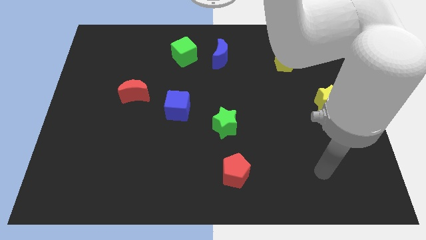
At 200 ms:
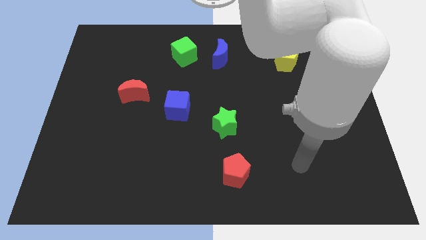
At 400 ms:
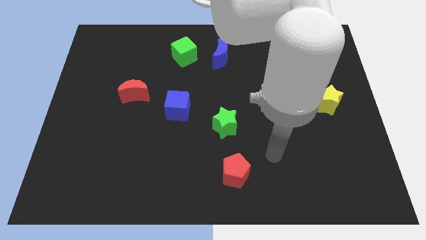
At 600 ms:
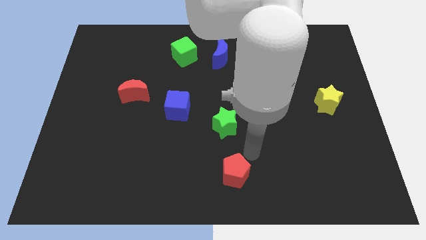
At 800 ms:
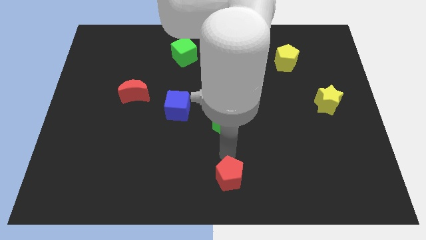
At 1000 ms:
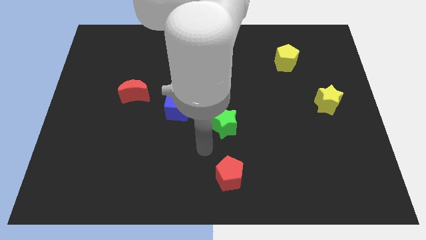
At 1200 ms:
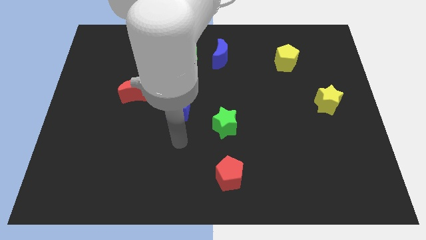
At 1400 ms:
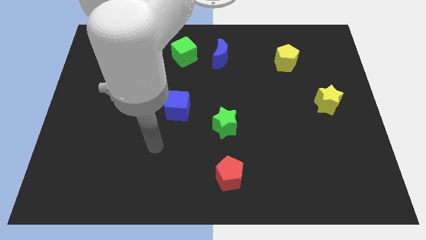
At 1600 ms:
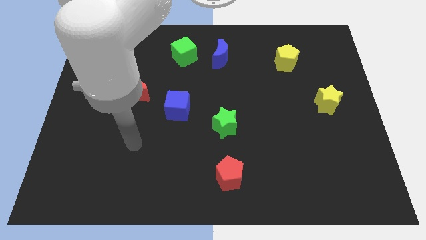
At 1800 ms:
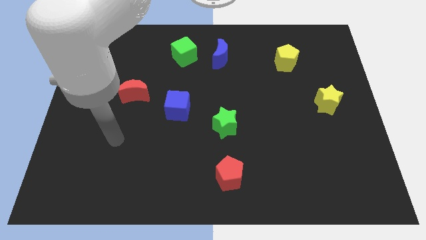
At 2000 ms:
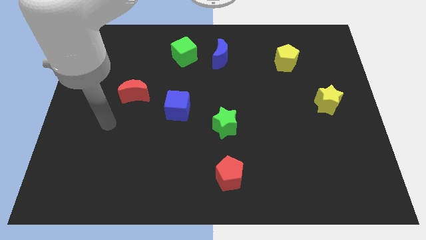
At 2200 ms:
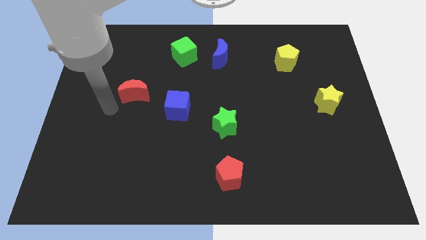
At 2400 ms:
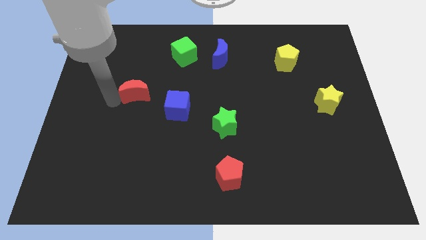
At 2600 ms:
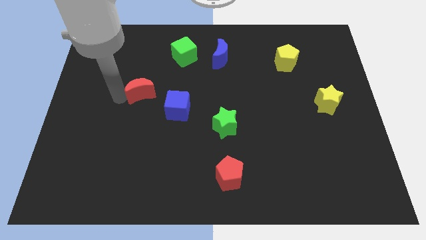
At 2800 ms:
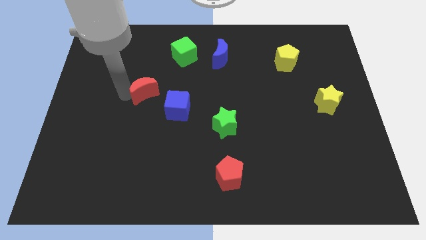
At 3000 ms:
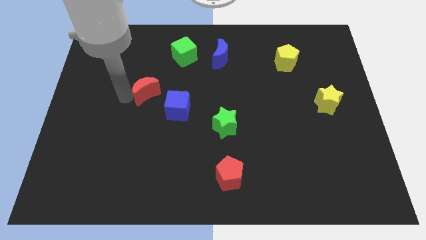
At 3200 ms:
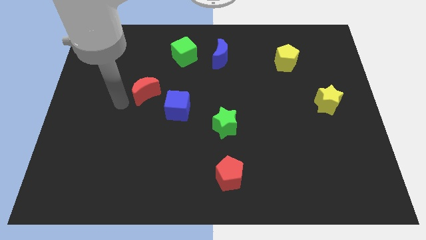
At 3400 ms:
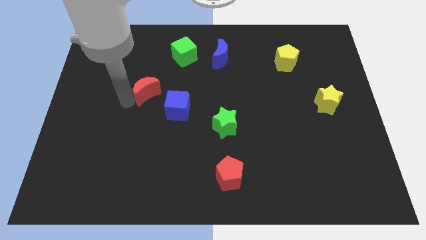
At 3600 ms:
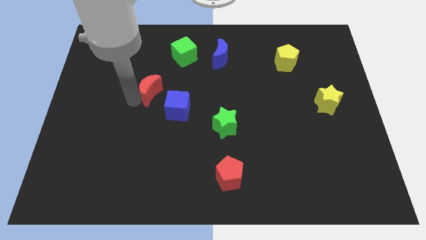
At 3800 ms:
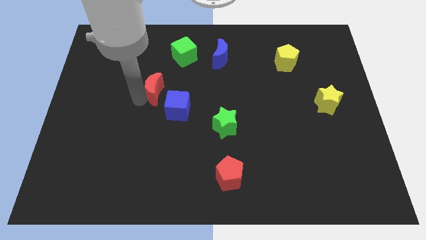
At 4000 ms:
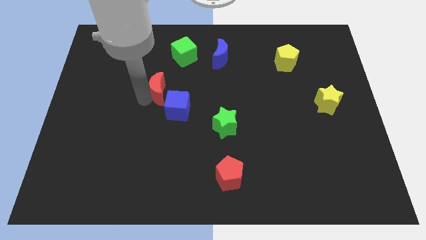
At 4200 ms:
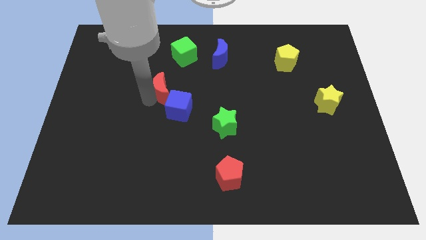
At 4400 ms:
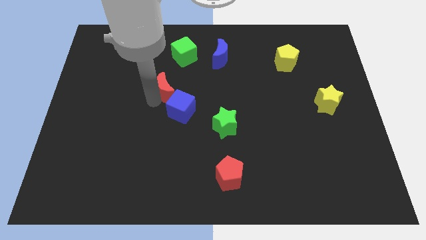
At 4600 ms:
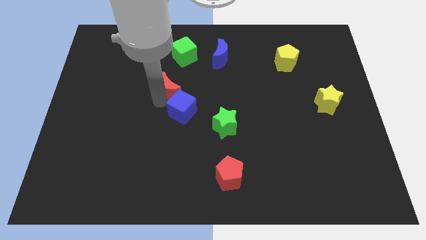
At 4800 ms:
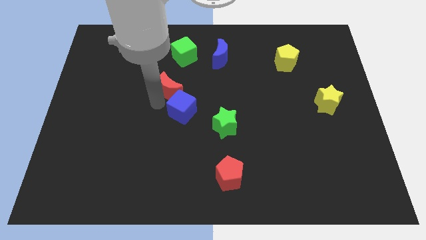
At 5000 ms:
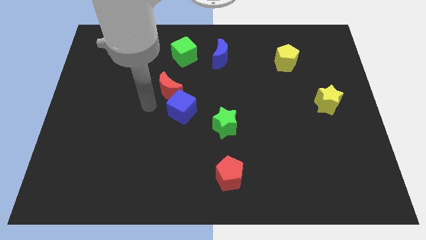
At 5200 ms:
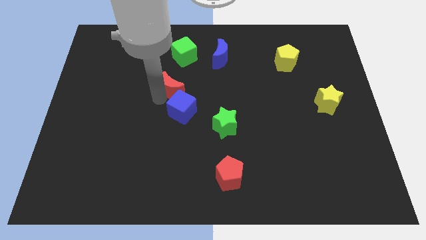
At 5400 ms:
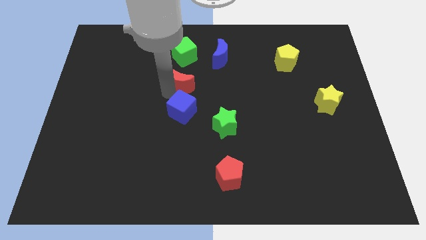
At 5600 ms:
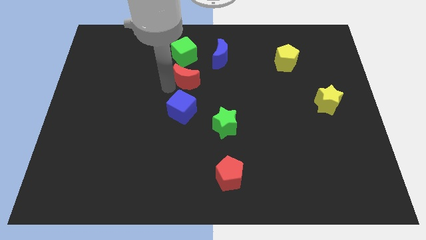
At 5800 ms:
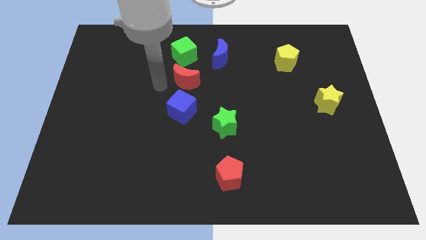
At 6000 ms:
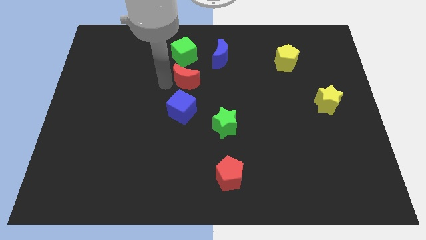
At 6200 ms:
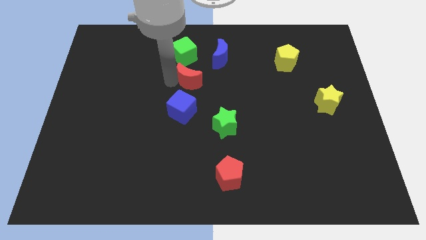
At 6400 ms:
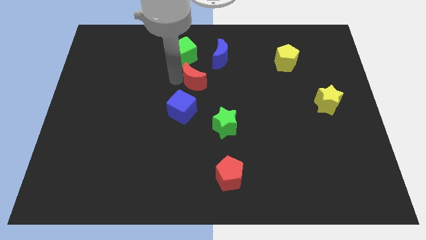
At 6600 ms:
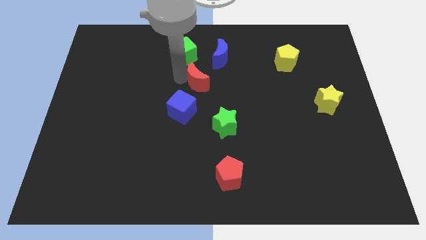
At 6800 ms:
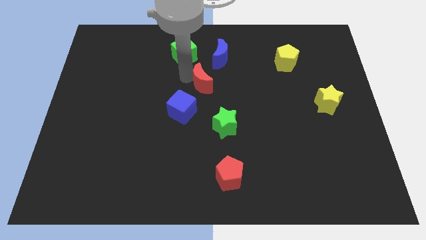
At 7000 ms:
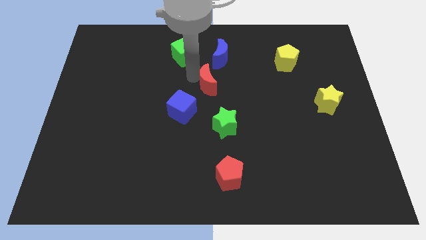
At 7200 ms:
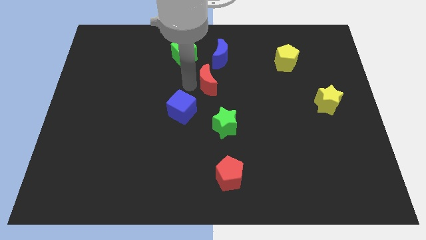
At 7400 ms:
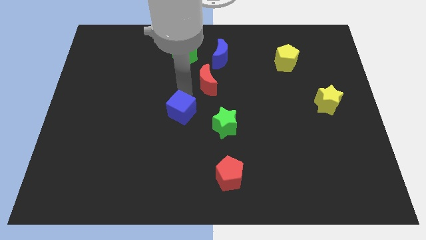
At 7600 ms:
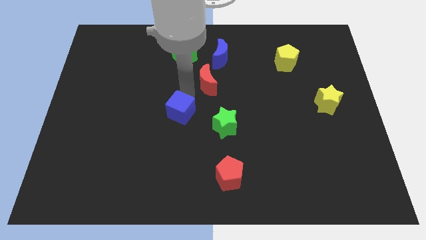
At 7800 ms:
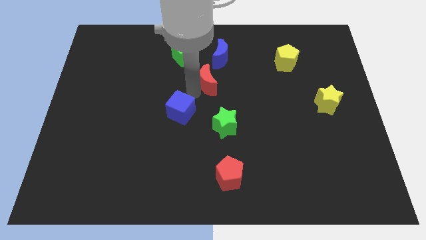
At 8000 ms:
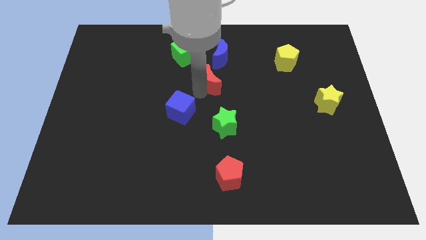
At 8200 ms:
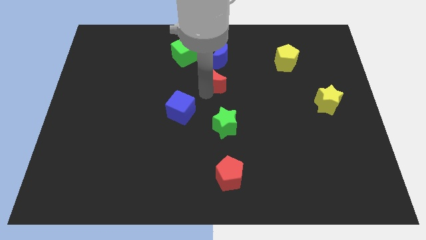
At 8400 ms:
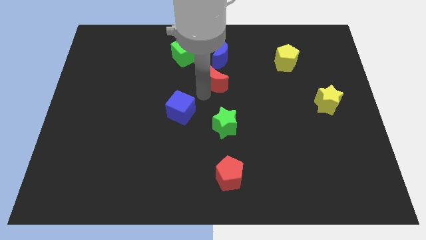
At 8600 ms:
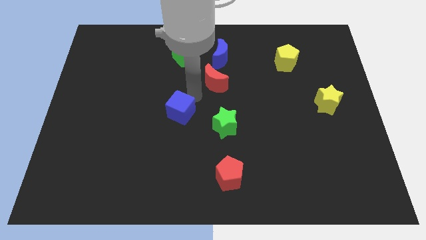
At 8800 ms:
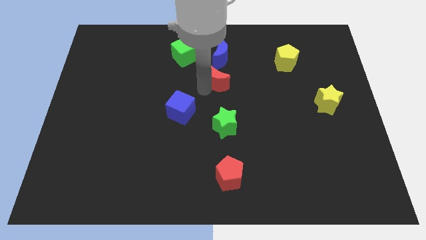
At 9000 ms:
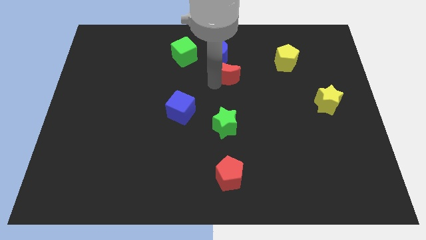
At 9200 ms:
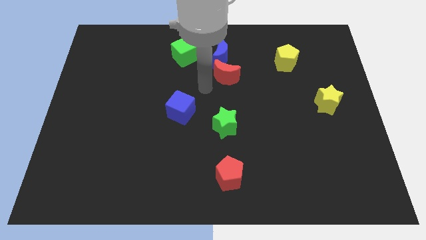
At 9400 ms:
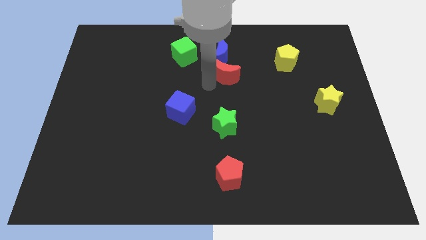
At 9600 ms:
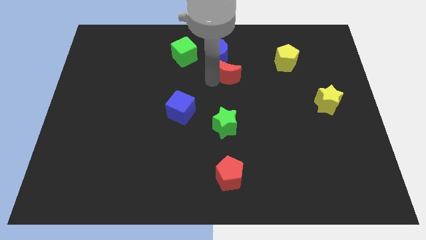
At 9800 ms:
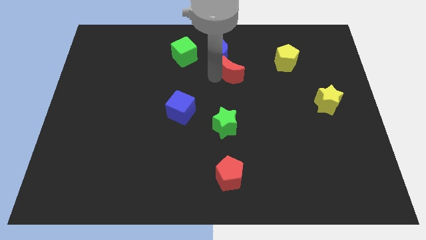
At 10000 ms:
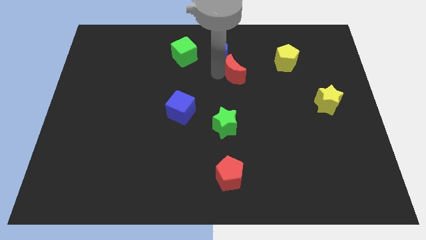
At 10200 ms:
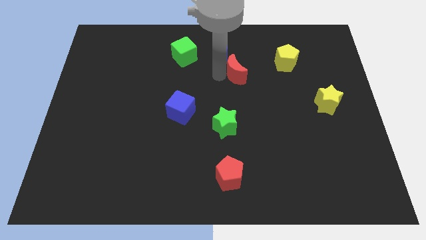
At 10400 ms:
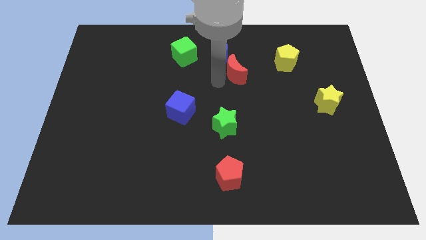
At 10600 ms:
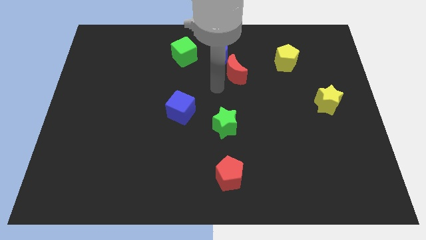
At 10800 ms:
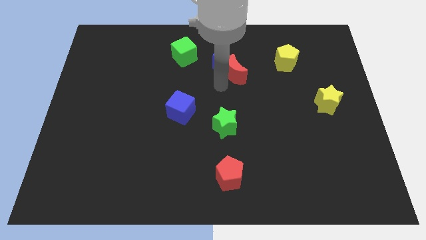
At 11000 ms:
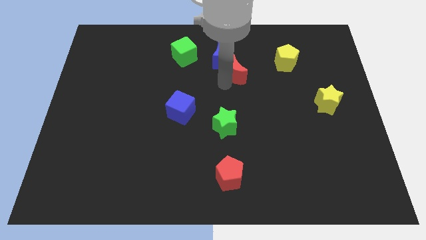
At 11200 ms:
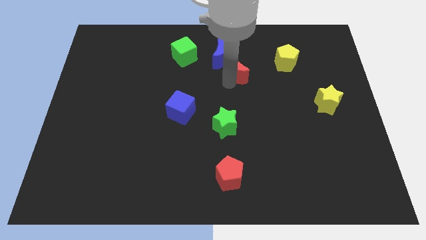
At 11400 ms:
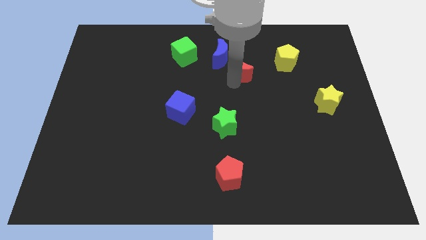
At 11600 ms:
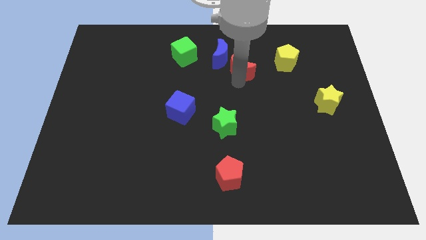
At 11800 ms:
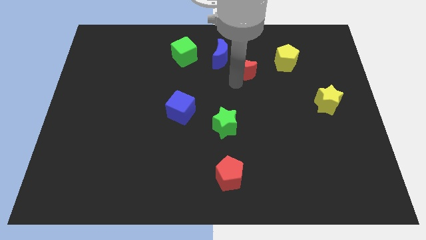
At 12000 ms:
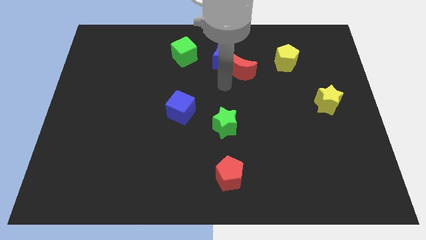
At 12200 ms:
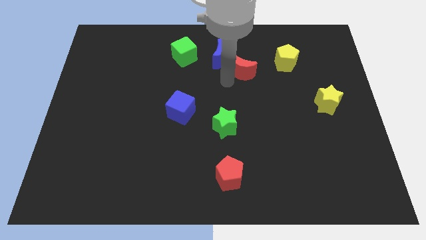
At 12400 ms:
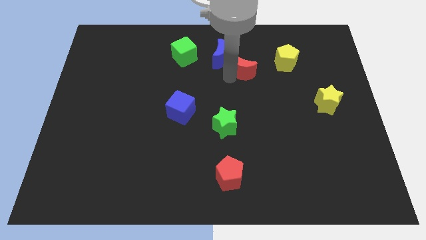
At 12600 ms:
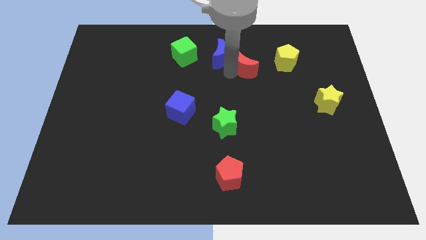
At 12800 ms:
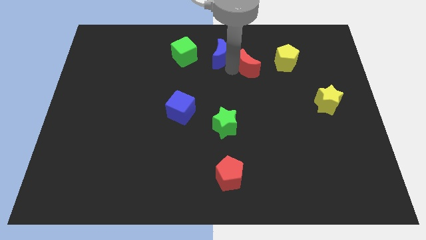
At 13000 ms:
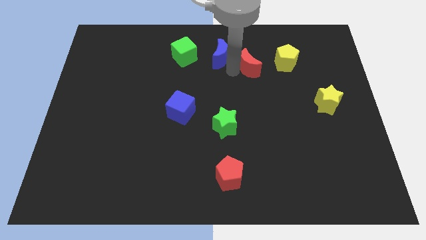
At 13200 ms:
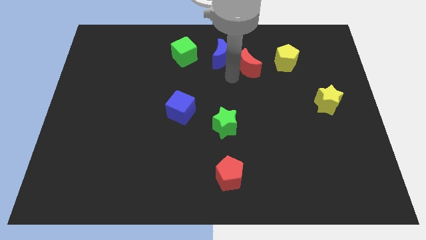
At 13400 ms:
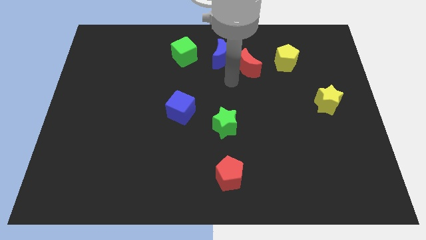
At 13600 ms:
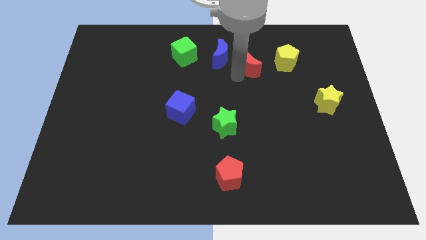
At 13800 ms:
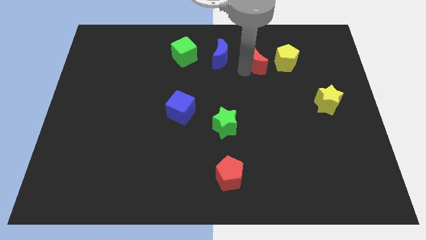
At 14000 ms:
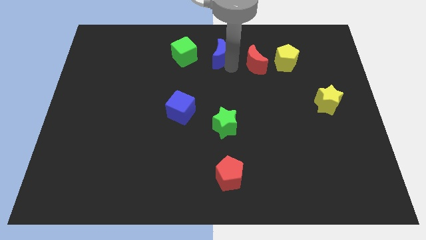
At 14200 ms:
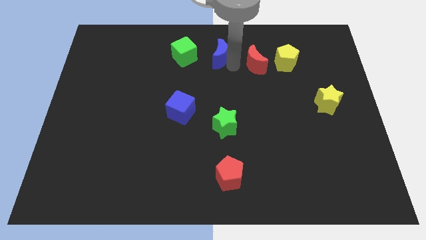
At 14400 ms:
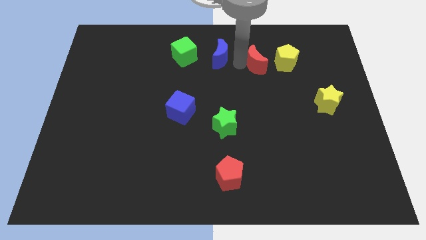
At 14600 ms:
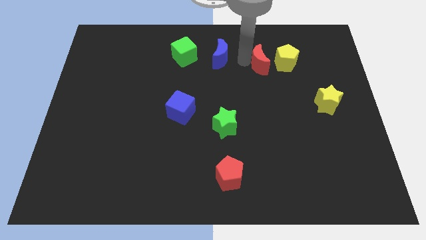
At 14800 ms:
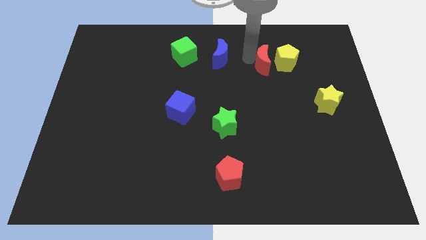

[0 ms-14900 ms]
move the red moon towards the yellow pentagon
